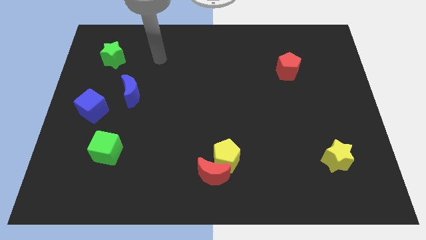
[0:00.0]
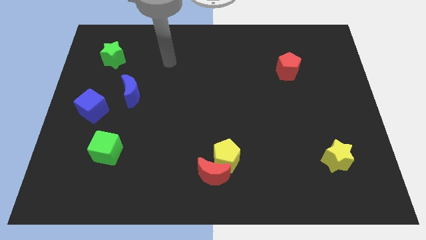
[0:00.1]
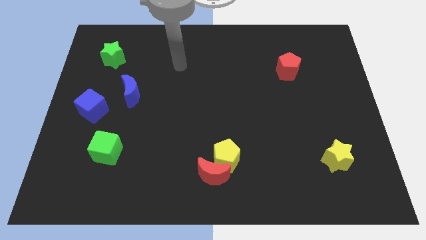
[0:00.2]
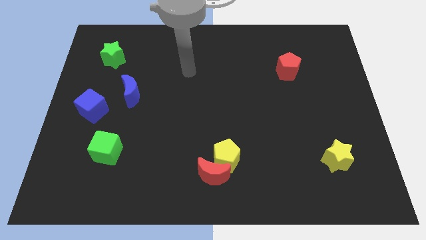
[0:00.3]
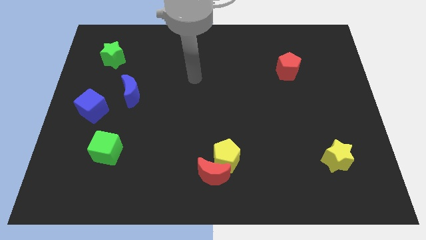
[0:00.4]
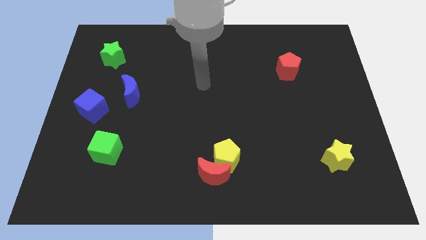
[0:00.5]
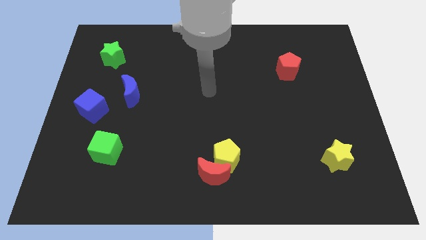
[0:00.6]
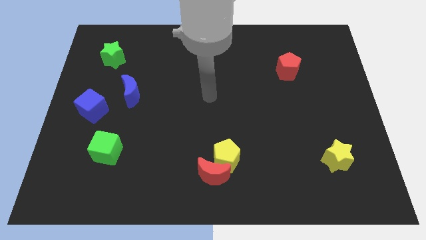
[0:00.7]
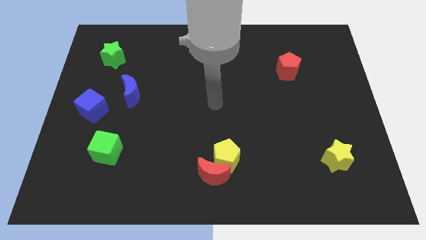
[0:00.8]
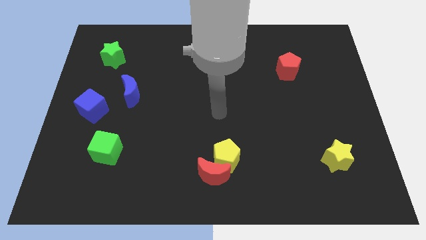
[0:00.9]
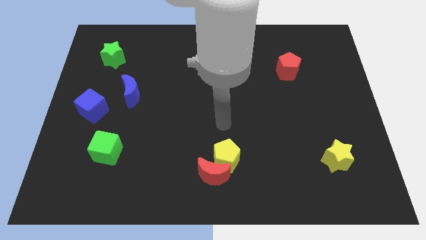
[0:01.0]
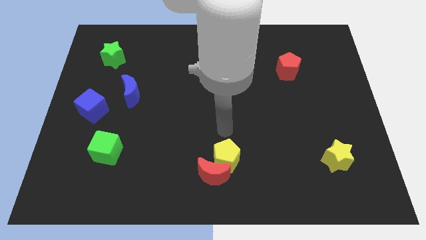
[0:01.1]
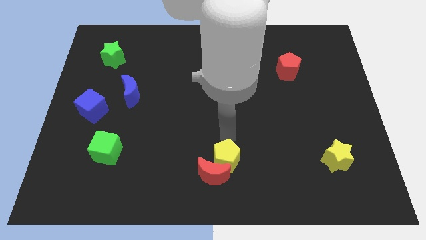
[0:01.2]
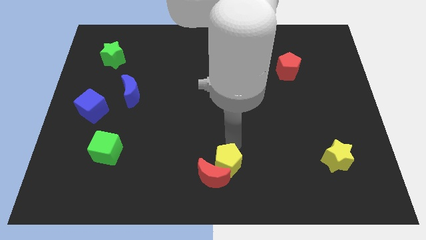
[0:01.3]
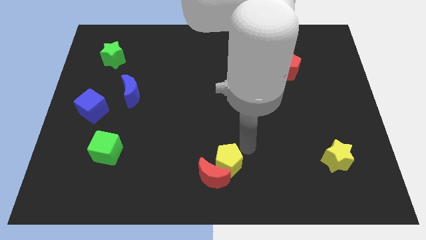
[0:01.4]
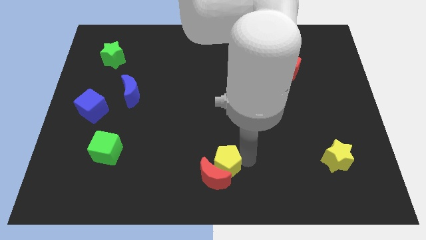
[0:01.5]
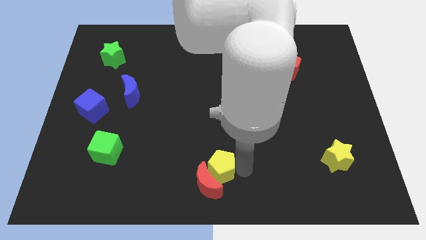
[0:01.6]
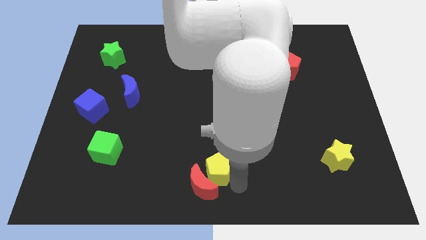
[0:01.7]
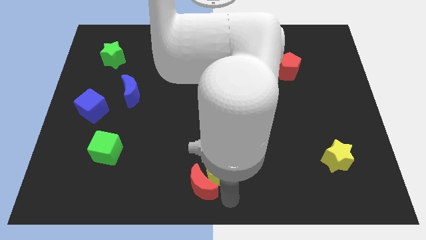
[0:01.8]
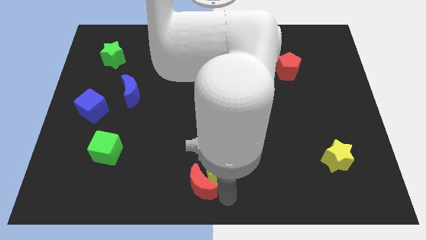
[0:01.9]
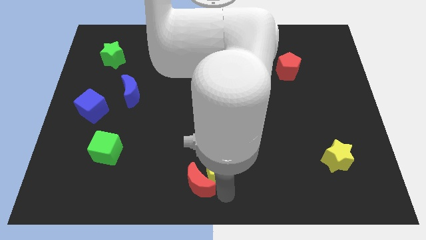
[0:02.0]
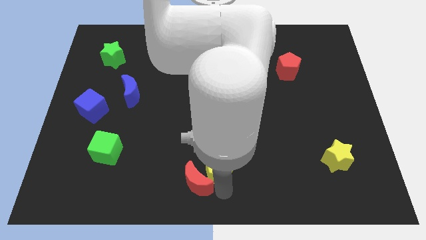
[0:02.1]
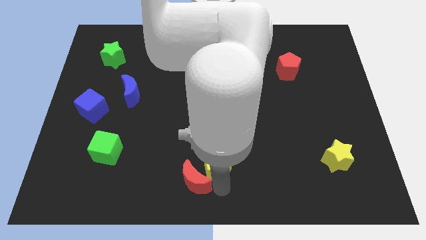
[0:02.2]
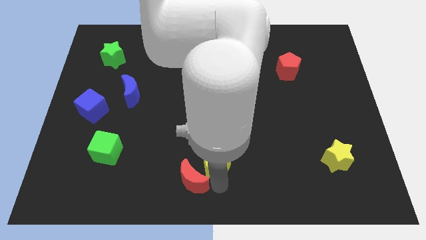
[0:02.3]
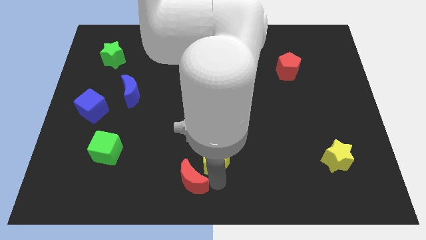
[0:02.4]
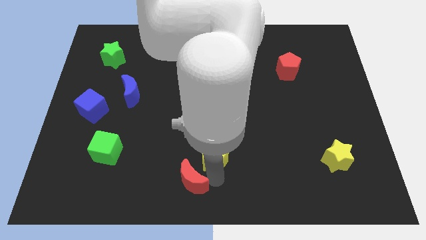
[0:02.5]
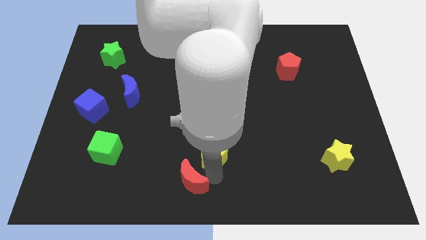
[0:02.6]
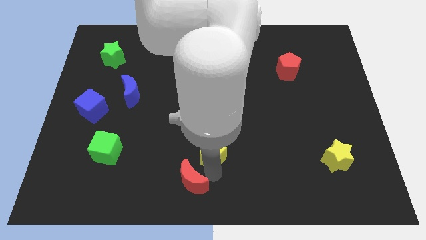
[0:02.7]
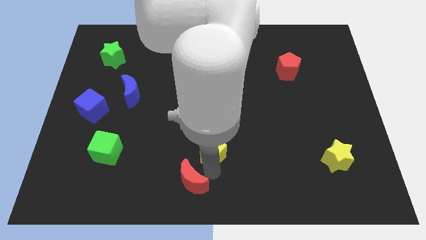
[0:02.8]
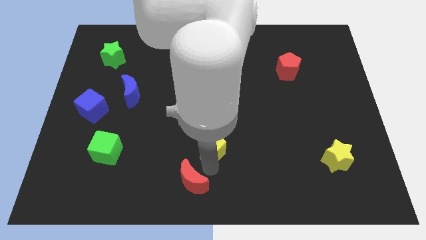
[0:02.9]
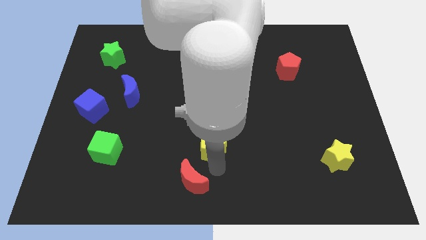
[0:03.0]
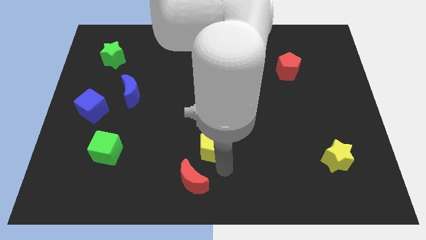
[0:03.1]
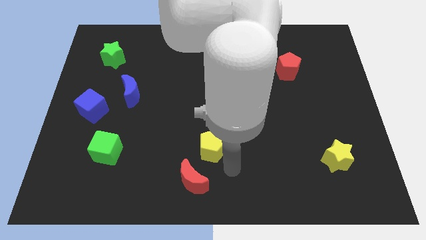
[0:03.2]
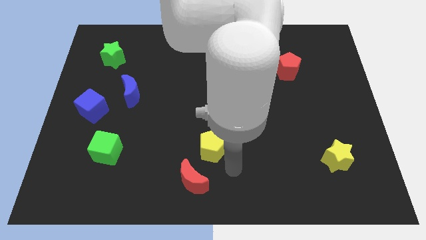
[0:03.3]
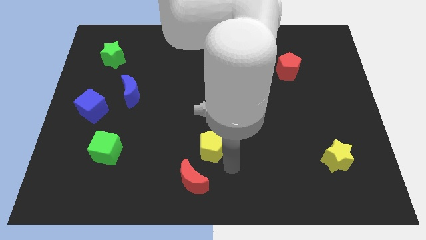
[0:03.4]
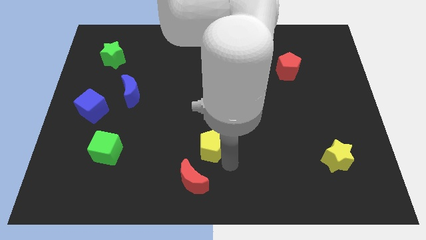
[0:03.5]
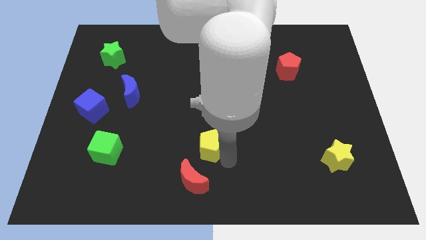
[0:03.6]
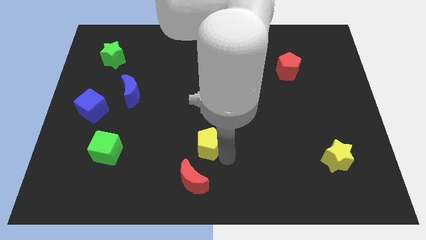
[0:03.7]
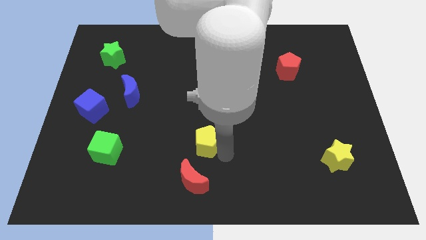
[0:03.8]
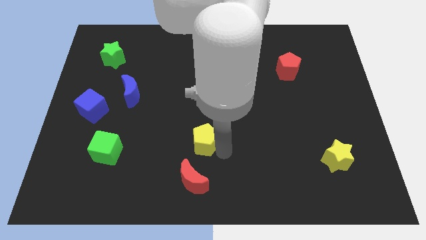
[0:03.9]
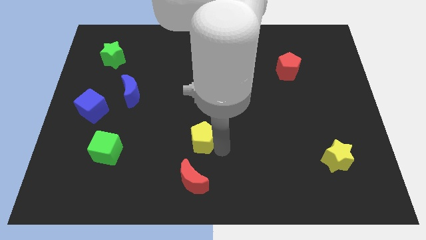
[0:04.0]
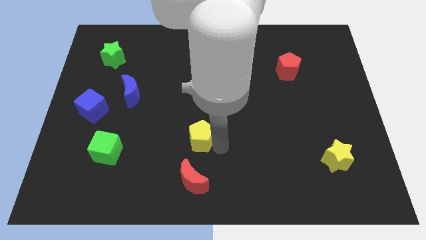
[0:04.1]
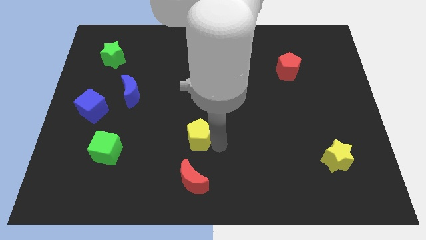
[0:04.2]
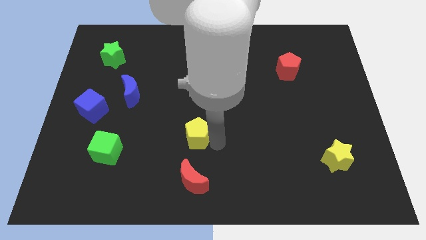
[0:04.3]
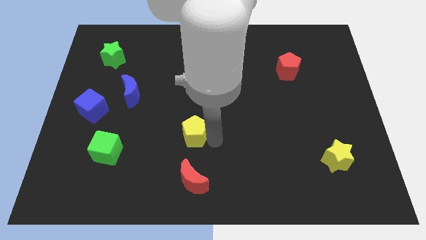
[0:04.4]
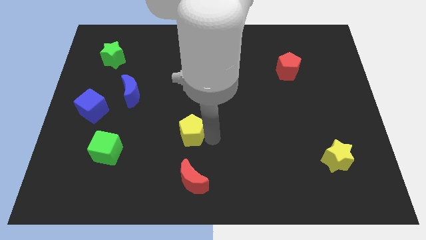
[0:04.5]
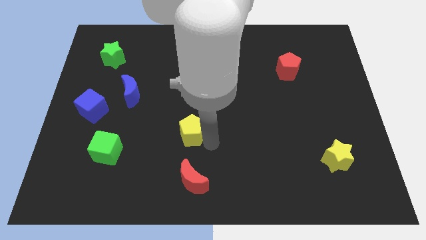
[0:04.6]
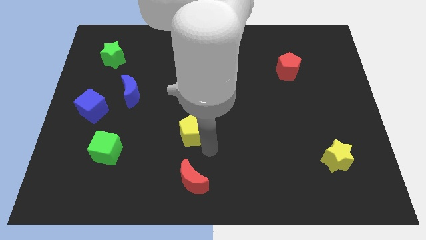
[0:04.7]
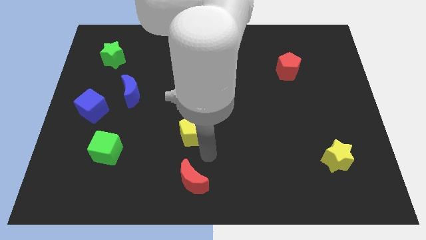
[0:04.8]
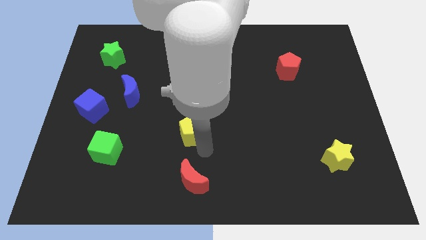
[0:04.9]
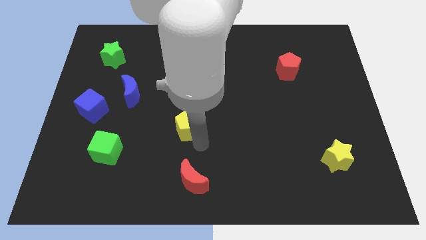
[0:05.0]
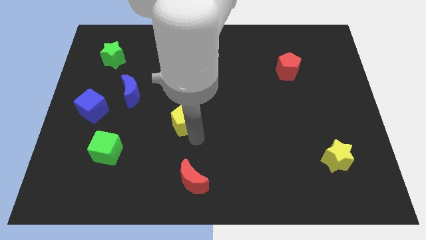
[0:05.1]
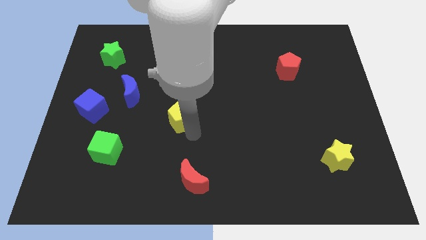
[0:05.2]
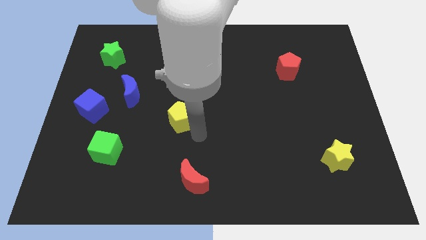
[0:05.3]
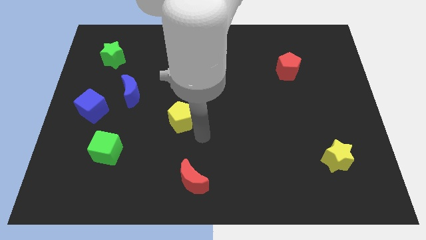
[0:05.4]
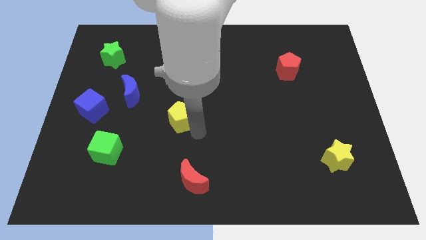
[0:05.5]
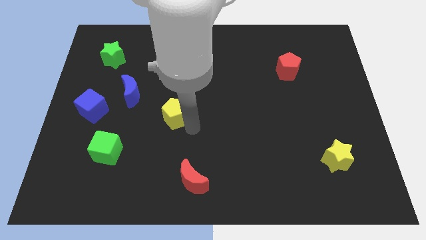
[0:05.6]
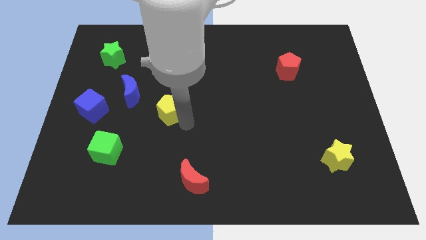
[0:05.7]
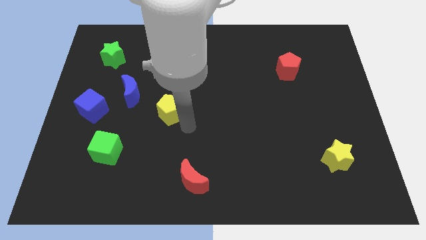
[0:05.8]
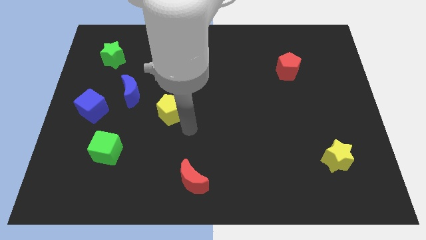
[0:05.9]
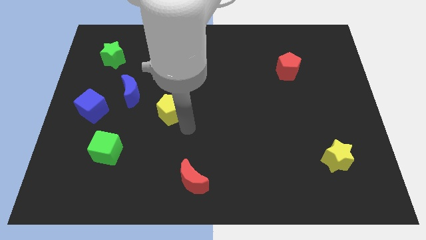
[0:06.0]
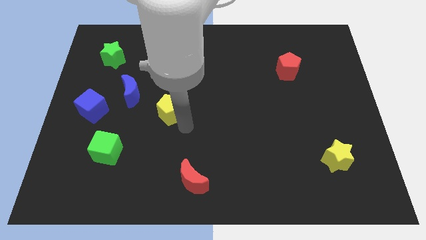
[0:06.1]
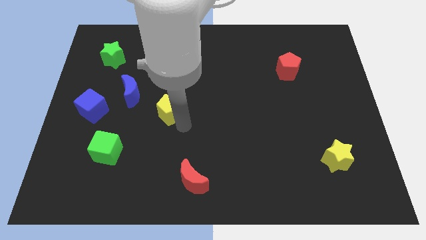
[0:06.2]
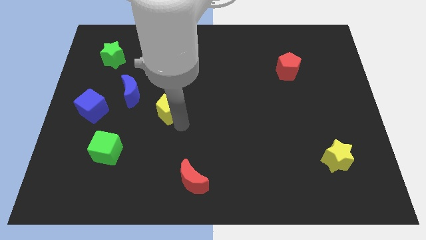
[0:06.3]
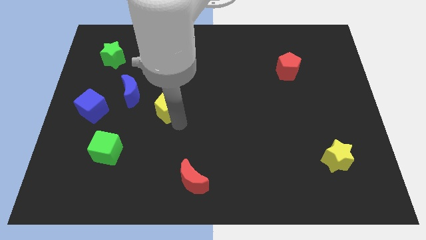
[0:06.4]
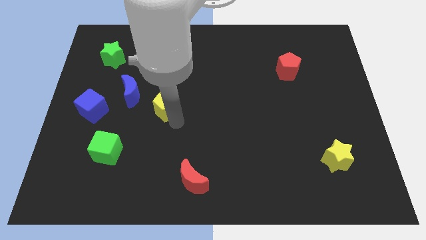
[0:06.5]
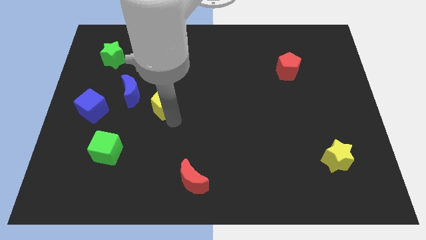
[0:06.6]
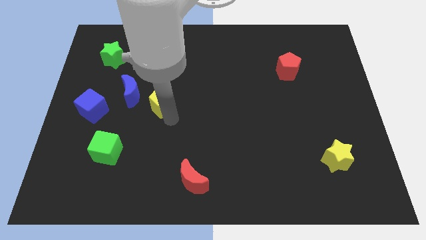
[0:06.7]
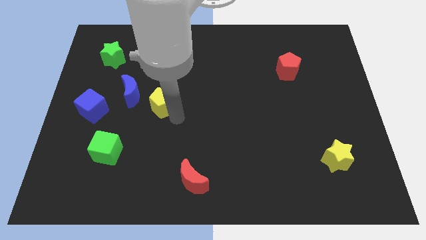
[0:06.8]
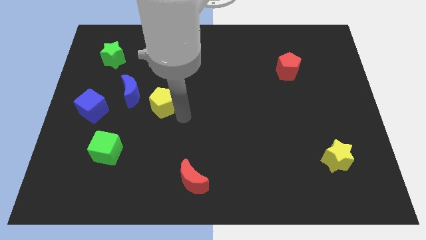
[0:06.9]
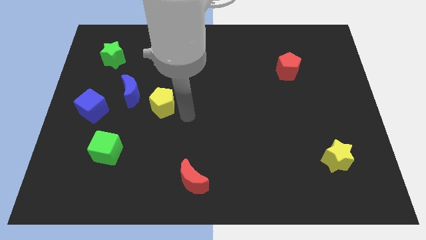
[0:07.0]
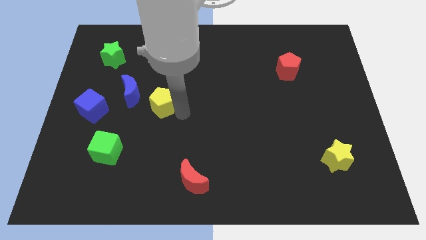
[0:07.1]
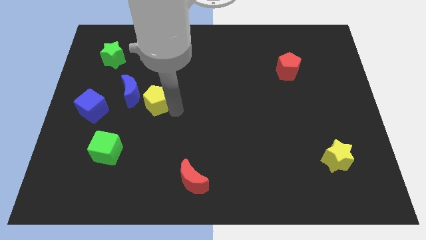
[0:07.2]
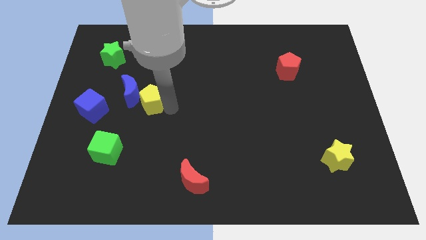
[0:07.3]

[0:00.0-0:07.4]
move the yellow pentagon close to the blue moon
